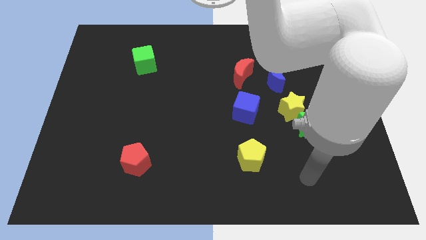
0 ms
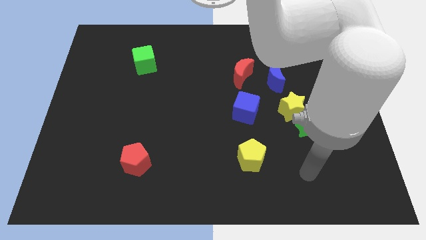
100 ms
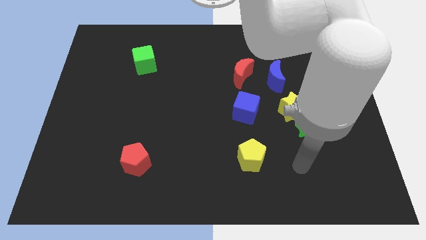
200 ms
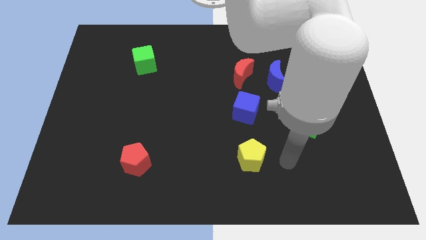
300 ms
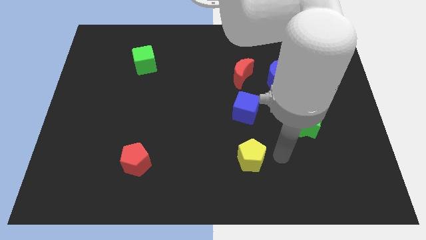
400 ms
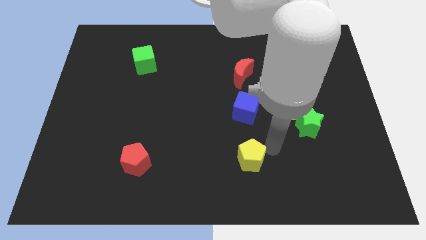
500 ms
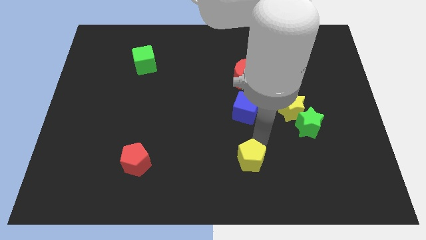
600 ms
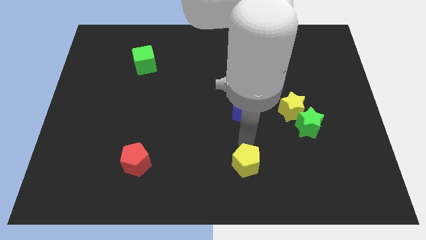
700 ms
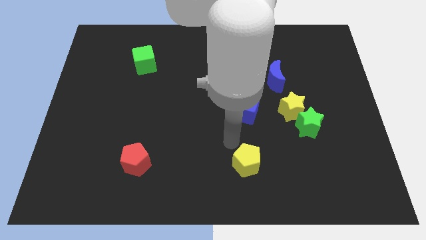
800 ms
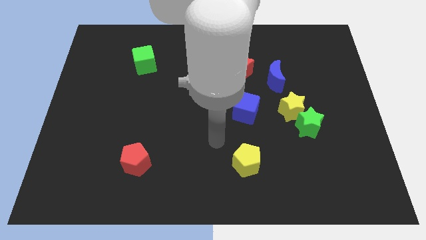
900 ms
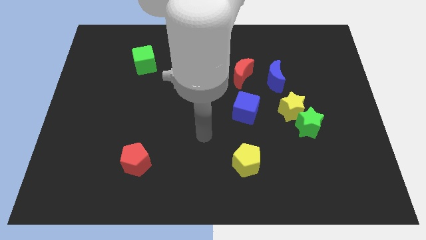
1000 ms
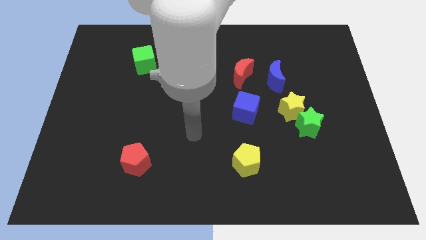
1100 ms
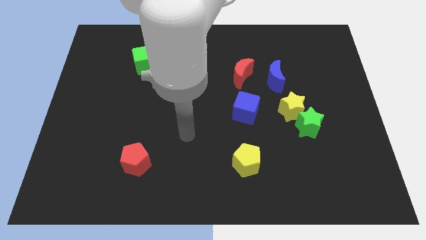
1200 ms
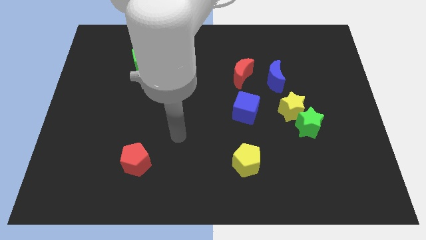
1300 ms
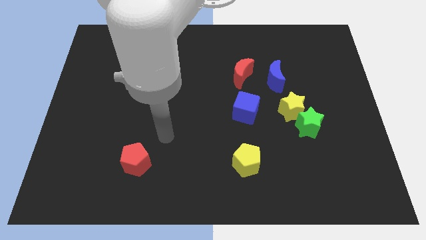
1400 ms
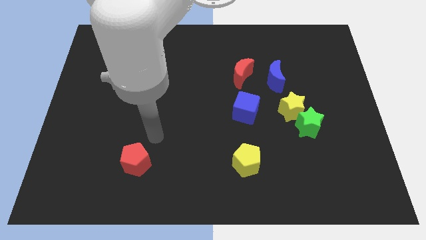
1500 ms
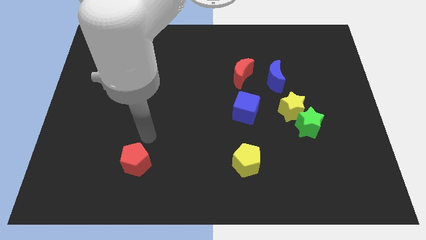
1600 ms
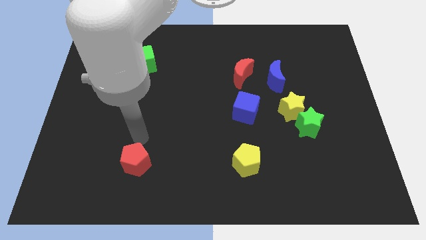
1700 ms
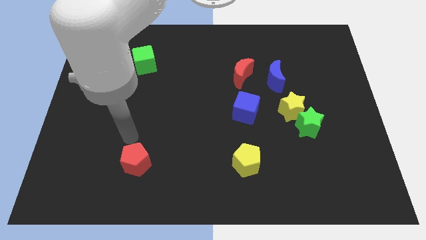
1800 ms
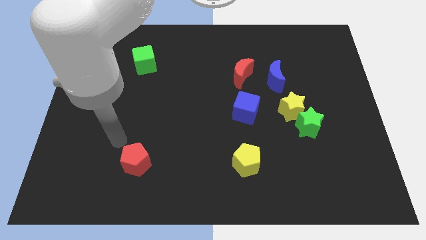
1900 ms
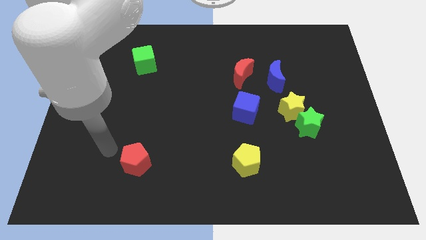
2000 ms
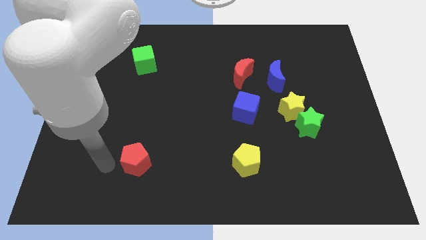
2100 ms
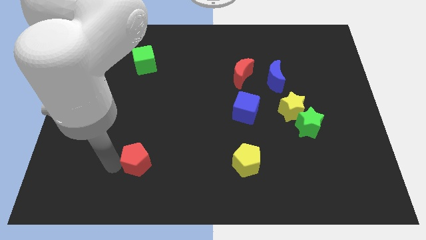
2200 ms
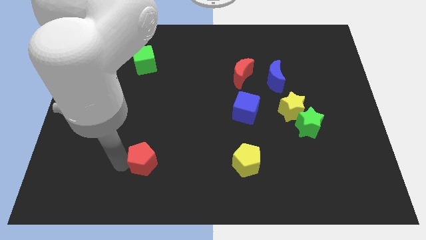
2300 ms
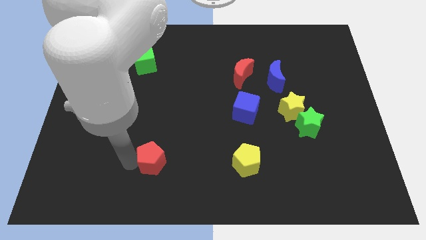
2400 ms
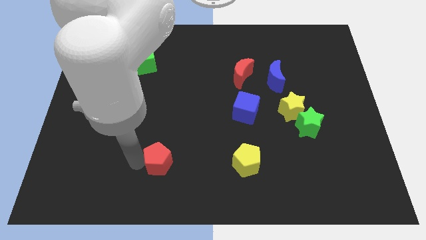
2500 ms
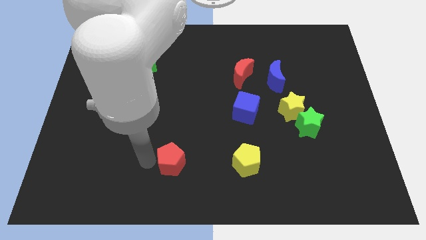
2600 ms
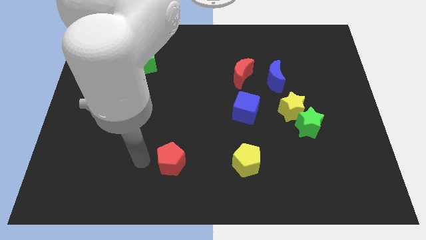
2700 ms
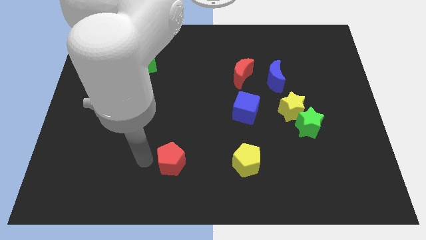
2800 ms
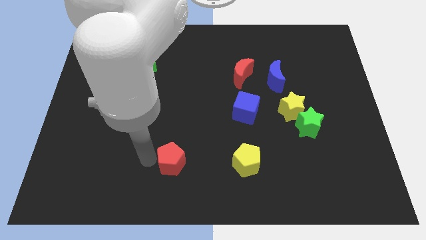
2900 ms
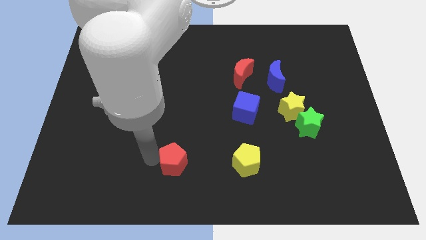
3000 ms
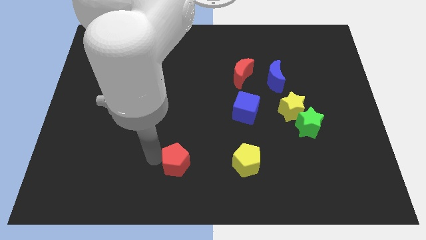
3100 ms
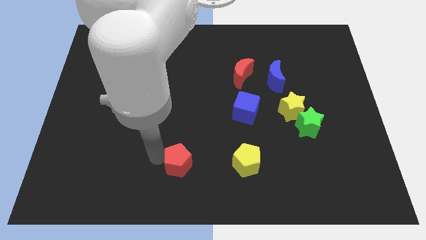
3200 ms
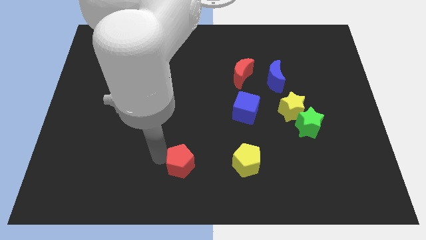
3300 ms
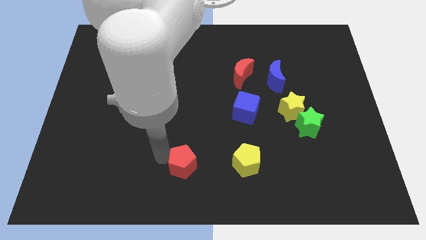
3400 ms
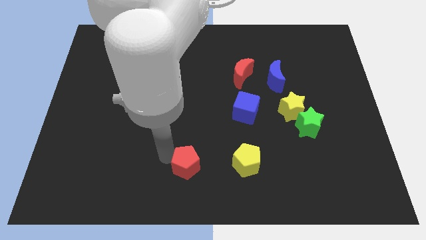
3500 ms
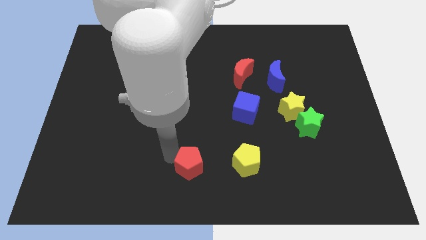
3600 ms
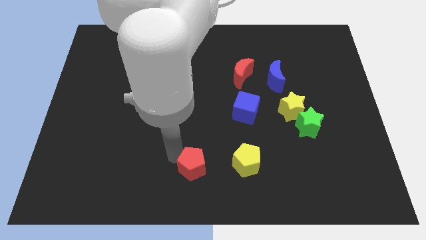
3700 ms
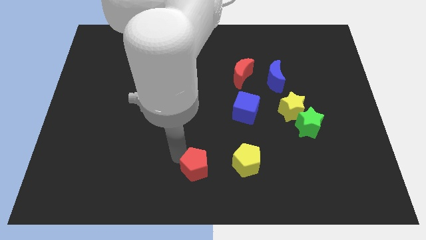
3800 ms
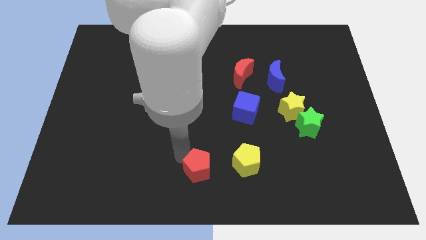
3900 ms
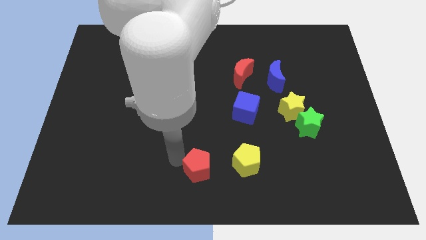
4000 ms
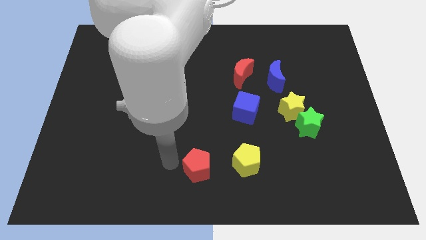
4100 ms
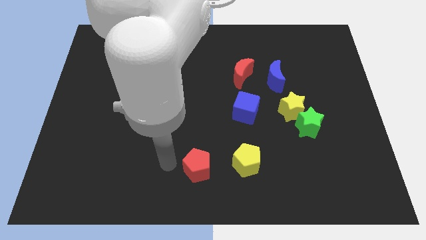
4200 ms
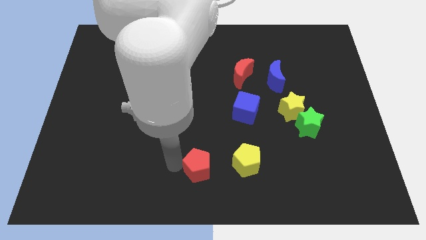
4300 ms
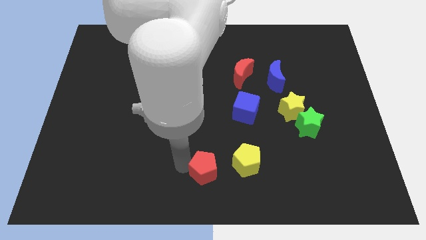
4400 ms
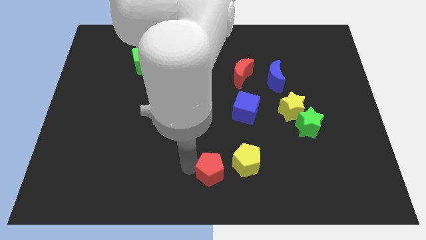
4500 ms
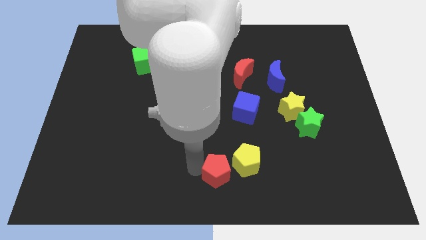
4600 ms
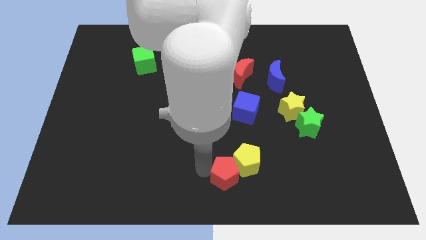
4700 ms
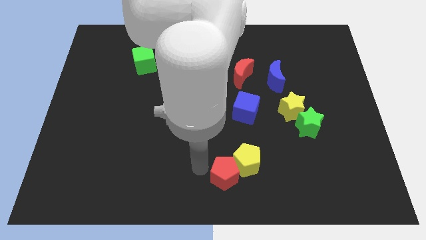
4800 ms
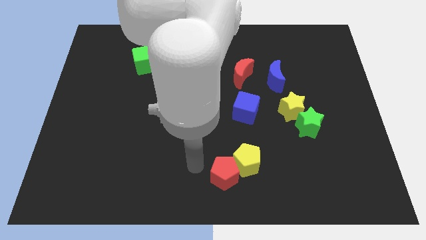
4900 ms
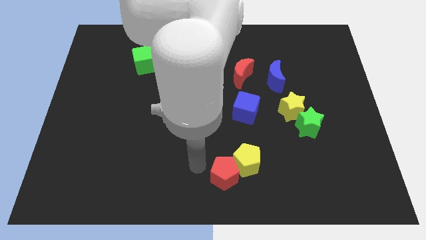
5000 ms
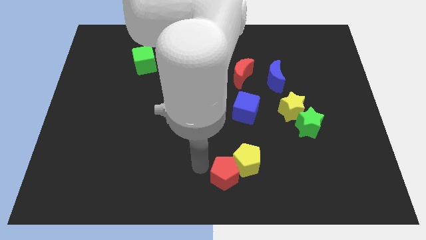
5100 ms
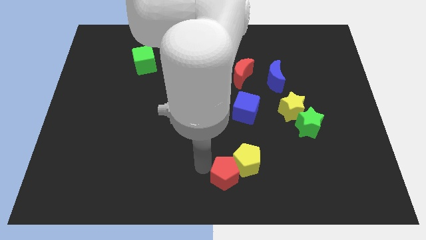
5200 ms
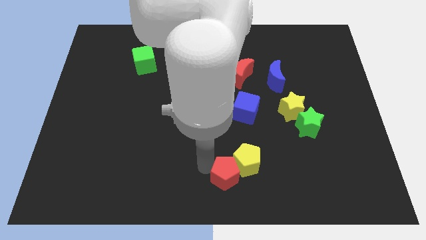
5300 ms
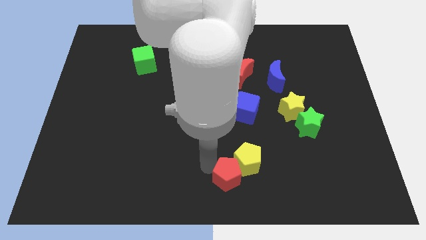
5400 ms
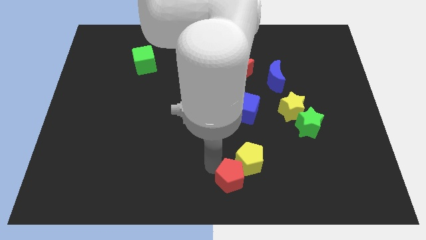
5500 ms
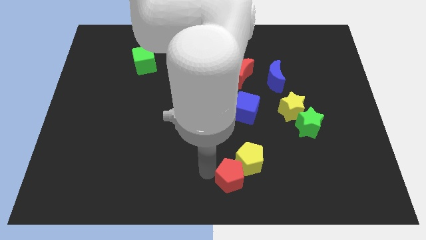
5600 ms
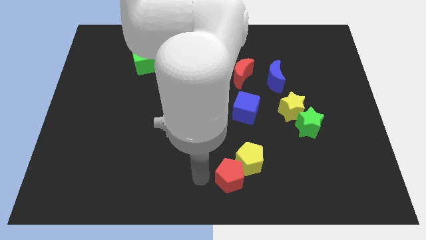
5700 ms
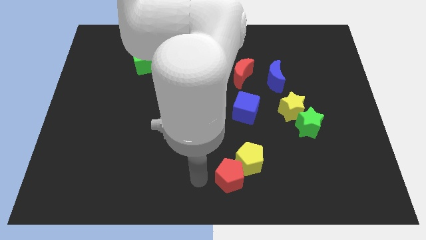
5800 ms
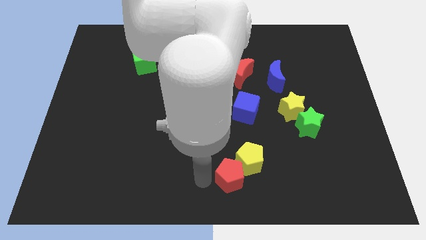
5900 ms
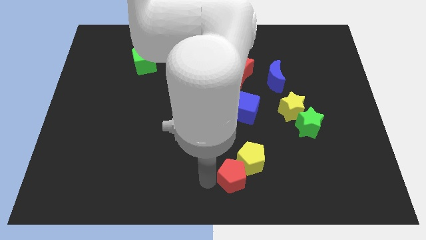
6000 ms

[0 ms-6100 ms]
slide the red pentagon right

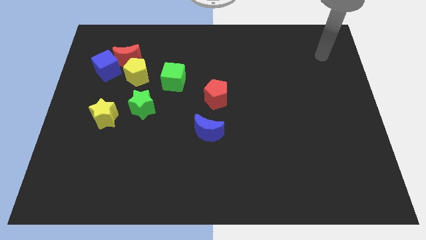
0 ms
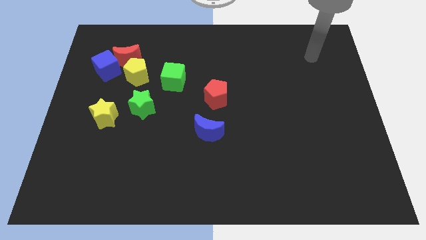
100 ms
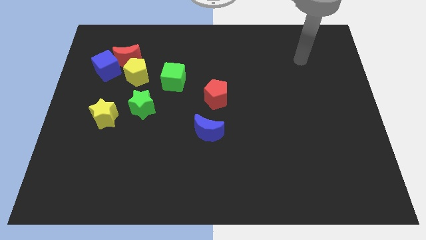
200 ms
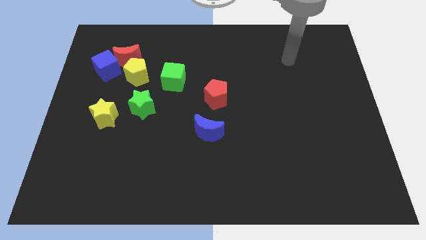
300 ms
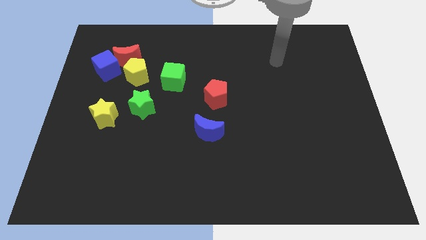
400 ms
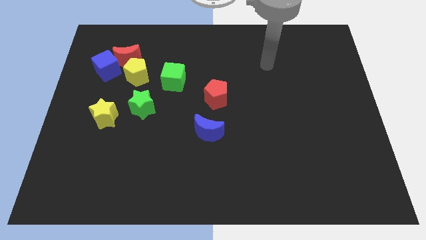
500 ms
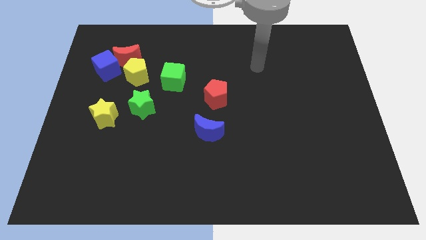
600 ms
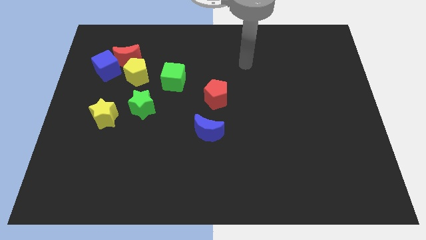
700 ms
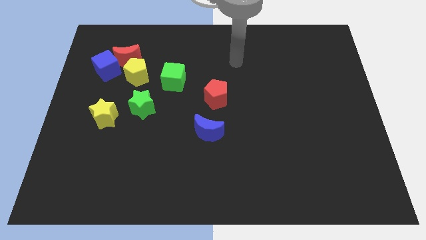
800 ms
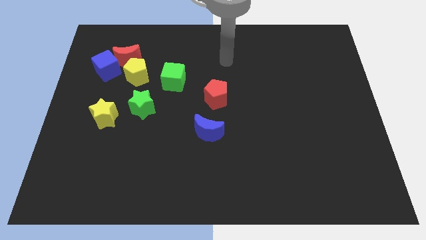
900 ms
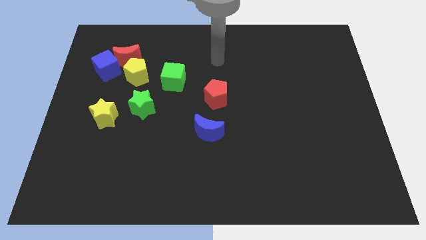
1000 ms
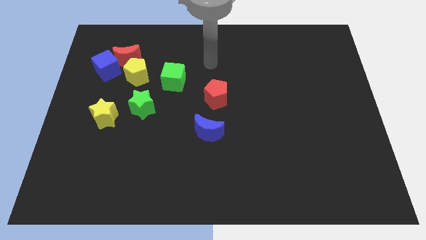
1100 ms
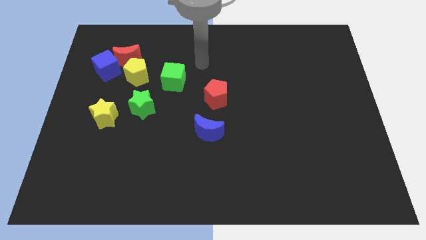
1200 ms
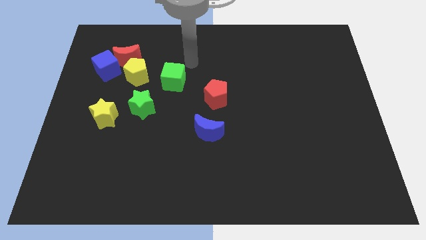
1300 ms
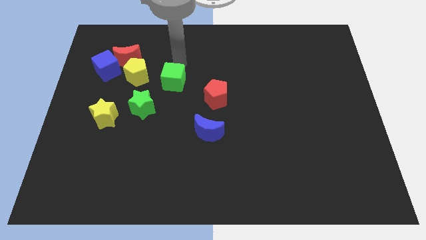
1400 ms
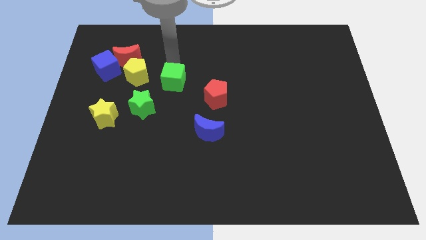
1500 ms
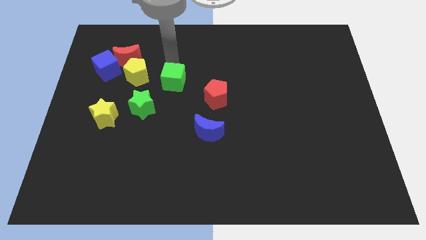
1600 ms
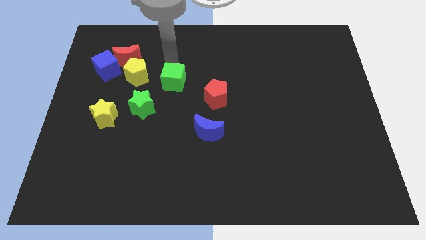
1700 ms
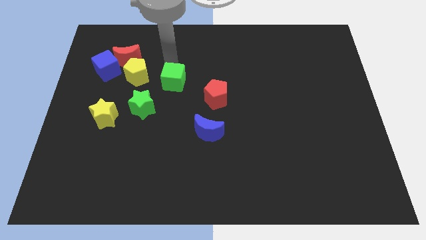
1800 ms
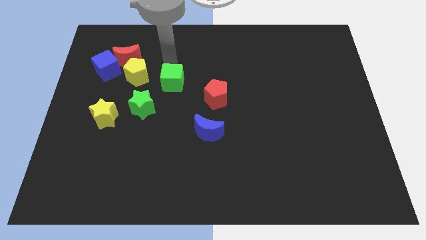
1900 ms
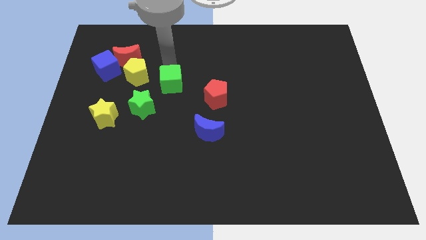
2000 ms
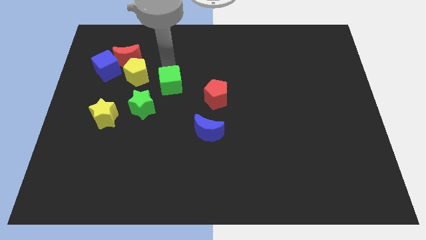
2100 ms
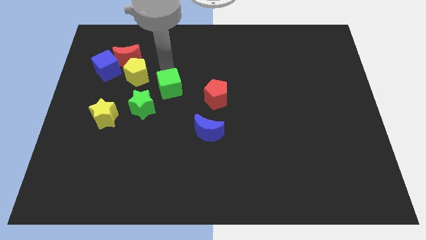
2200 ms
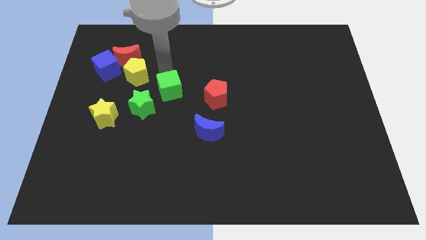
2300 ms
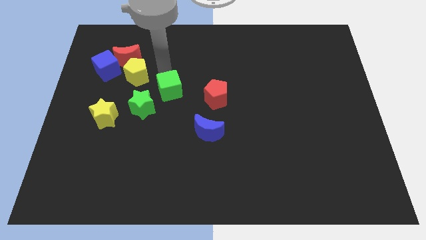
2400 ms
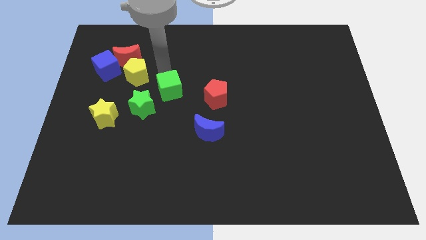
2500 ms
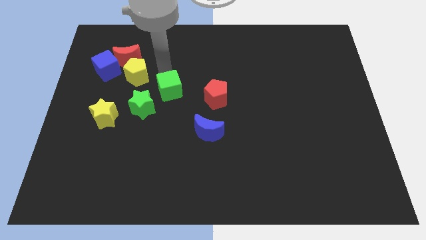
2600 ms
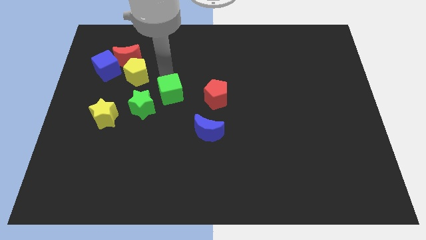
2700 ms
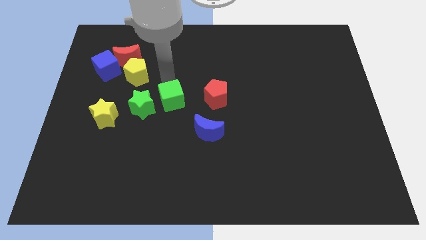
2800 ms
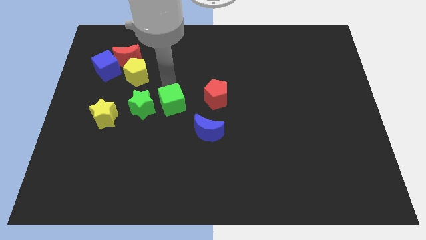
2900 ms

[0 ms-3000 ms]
slightly move the green cube downwards
